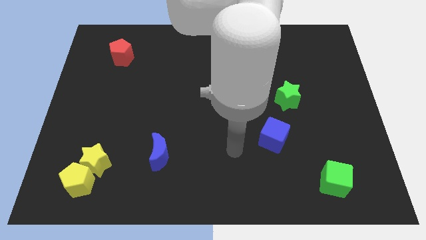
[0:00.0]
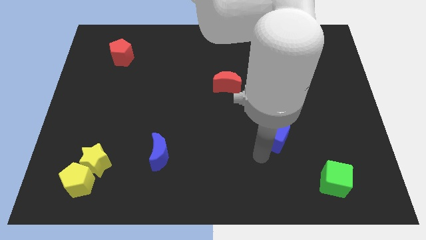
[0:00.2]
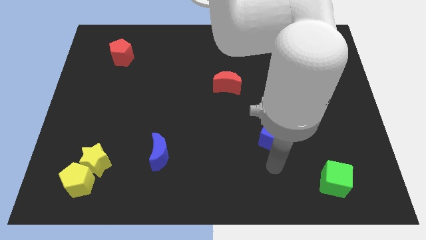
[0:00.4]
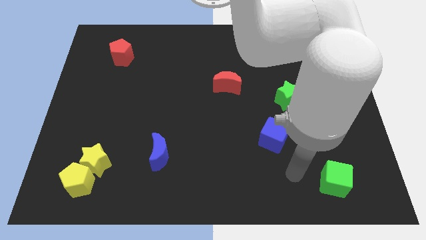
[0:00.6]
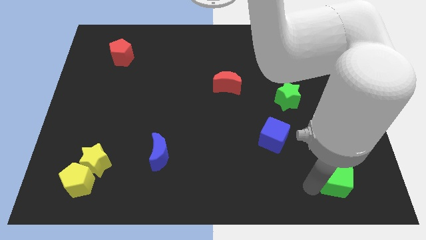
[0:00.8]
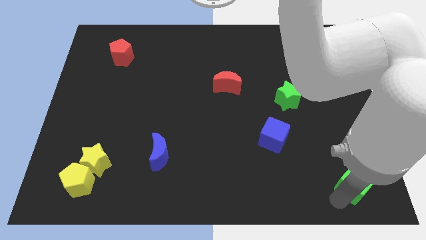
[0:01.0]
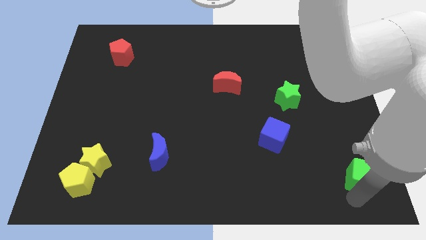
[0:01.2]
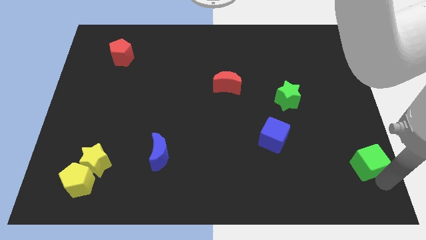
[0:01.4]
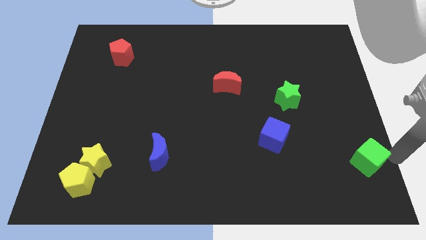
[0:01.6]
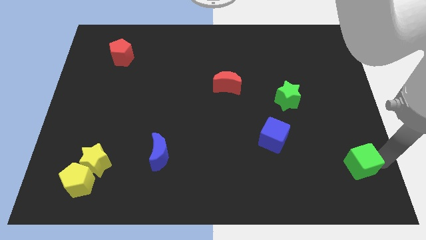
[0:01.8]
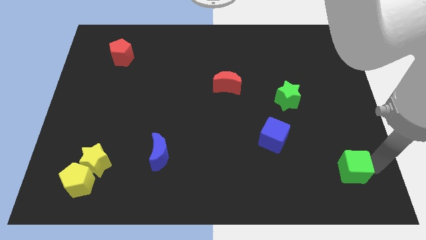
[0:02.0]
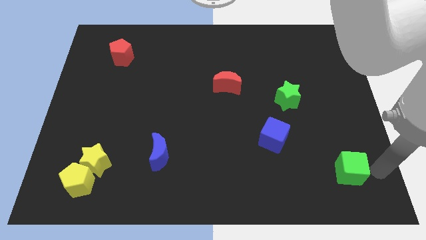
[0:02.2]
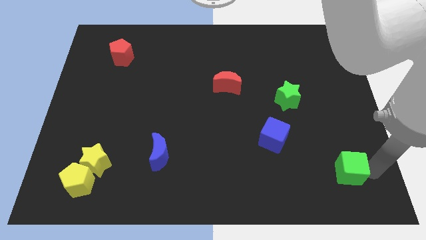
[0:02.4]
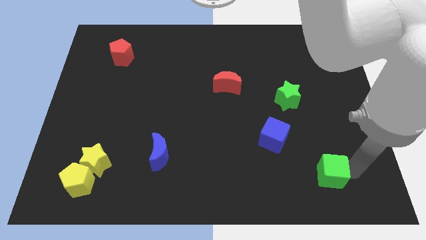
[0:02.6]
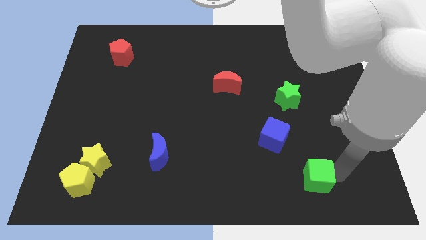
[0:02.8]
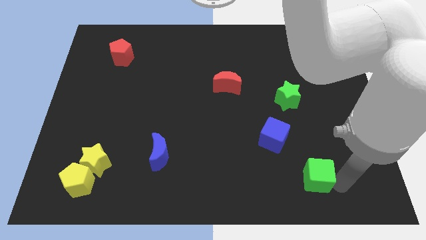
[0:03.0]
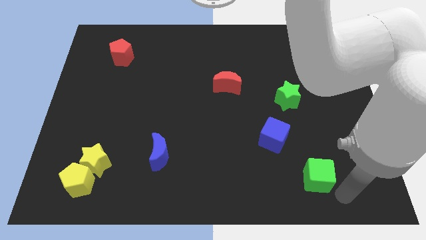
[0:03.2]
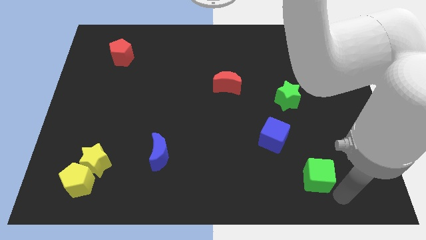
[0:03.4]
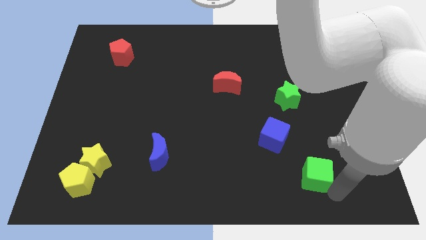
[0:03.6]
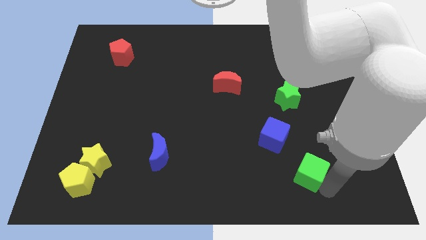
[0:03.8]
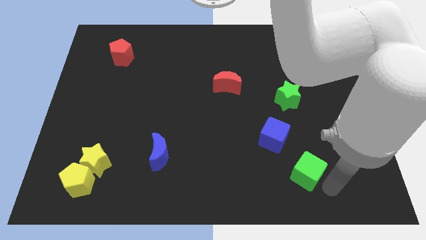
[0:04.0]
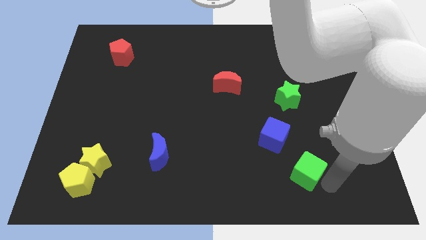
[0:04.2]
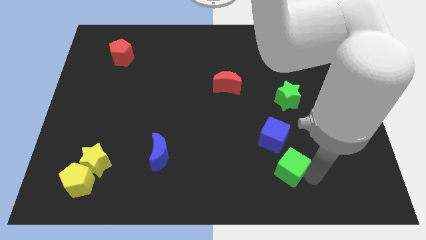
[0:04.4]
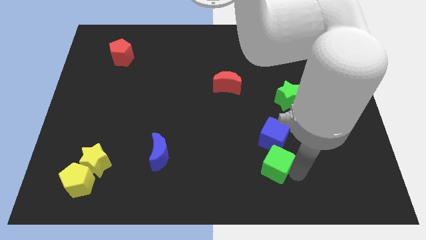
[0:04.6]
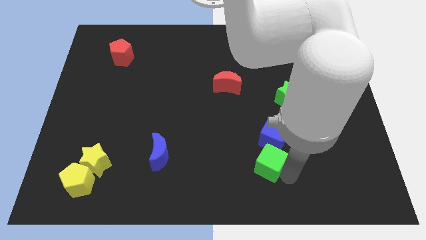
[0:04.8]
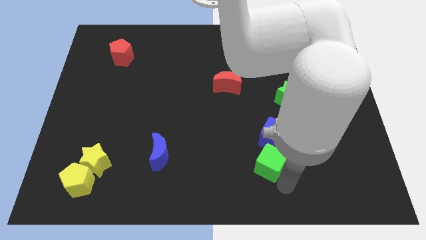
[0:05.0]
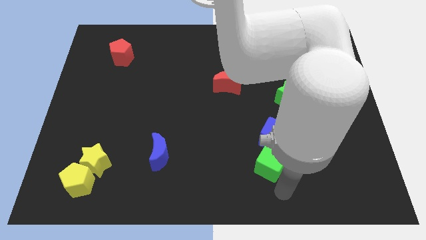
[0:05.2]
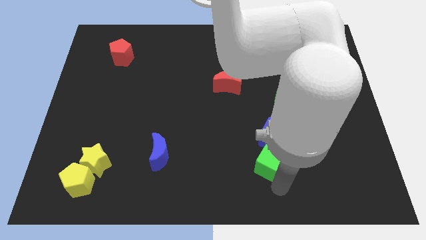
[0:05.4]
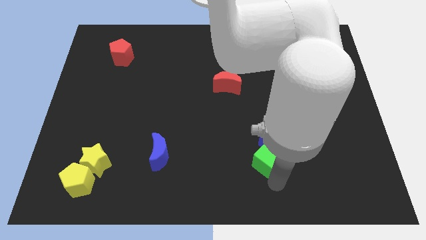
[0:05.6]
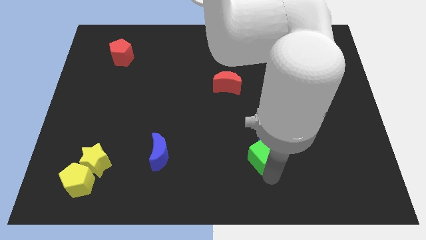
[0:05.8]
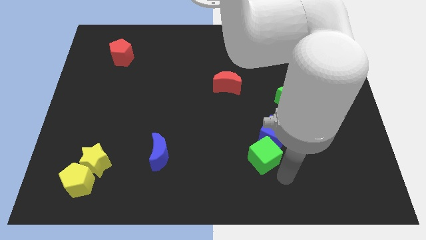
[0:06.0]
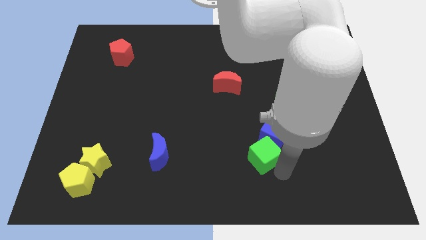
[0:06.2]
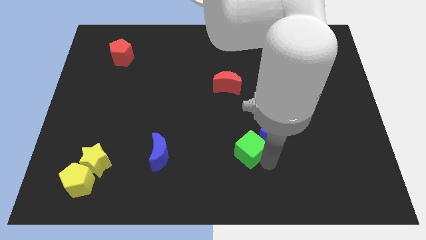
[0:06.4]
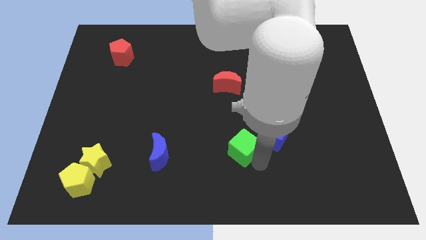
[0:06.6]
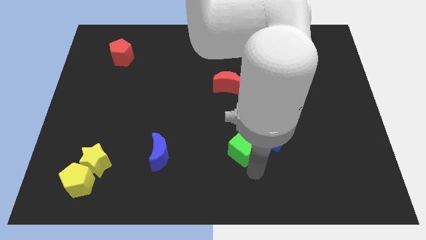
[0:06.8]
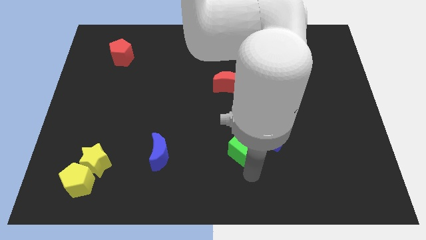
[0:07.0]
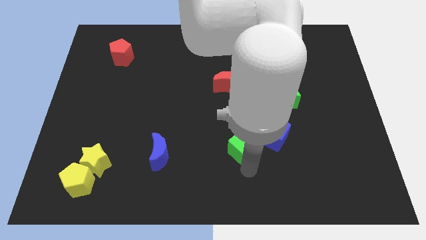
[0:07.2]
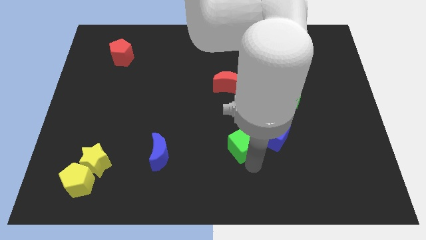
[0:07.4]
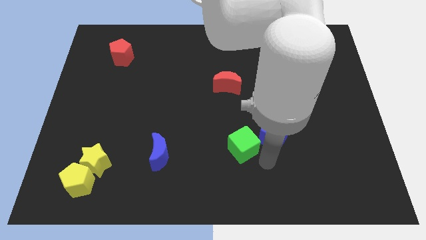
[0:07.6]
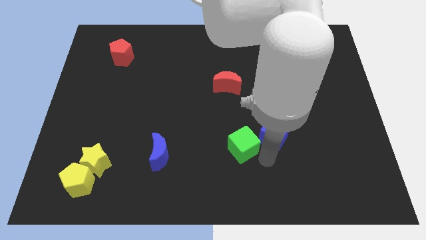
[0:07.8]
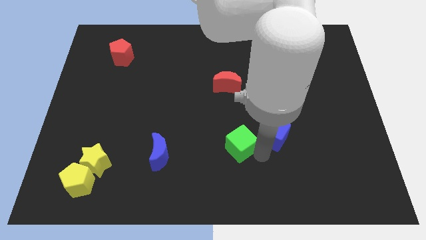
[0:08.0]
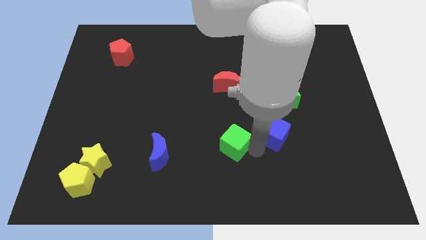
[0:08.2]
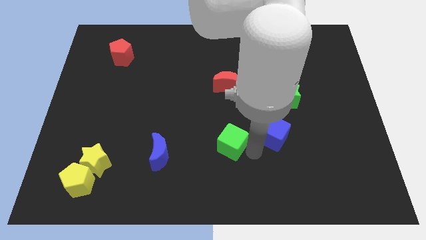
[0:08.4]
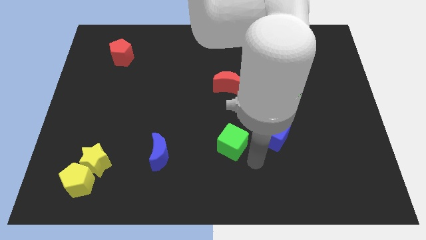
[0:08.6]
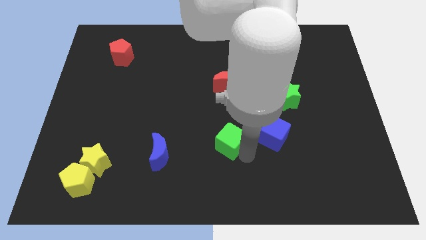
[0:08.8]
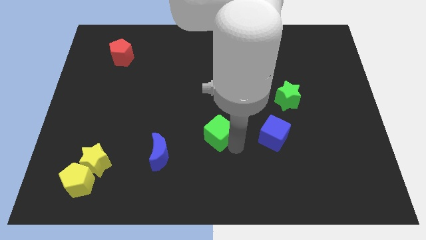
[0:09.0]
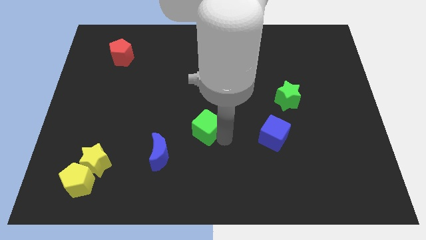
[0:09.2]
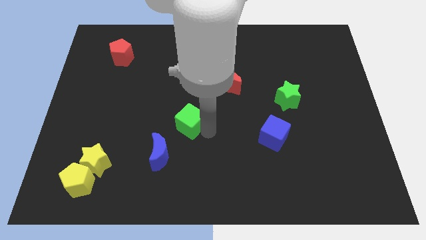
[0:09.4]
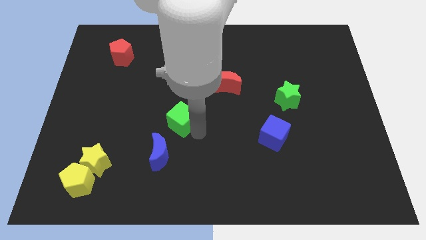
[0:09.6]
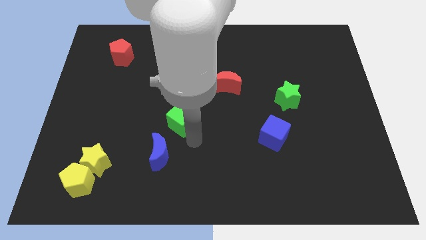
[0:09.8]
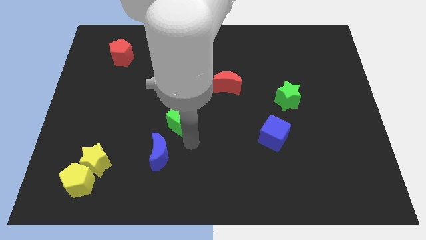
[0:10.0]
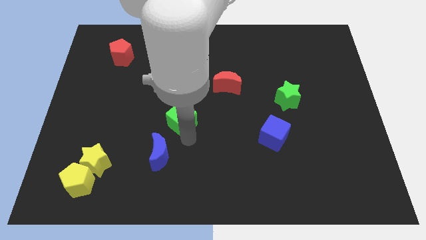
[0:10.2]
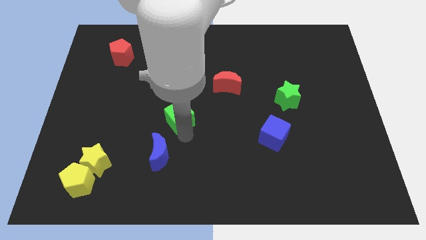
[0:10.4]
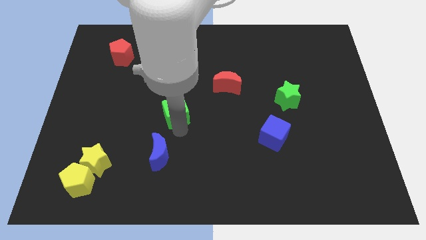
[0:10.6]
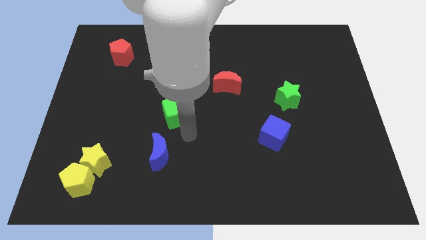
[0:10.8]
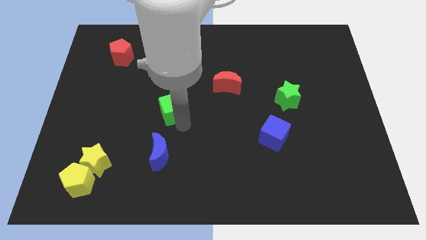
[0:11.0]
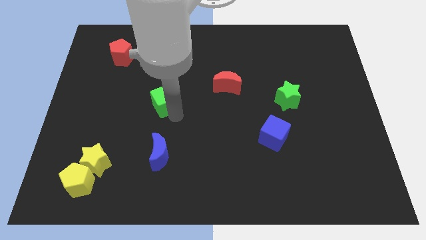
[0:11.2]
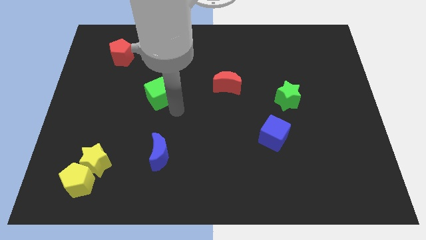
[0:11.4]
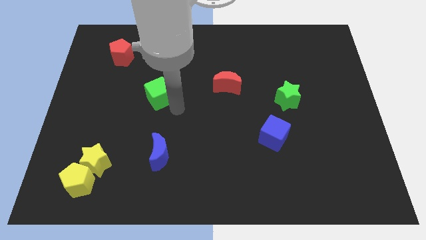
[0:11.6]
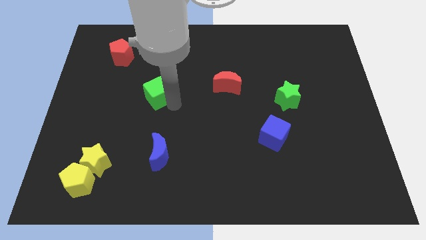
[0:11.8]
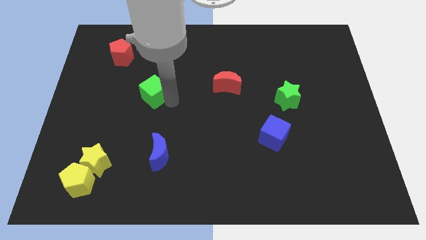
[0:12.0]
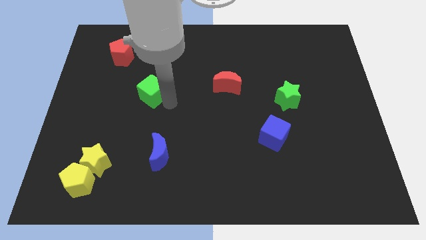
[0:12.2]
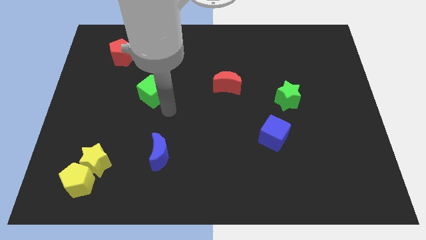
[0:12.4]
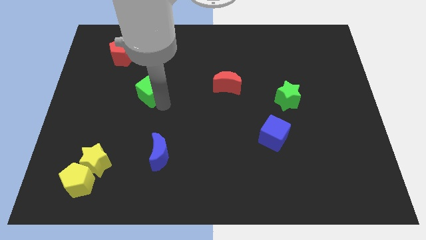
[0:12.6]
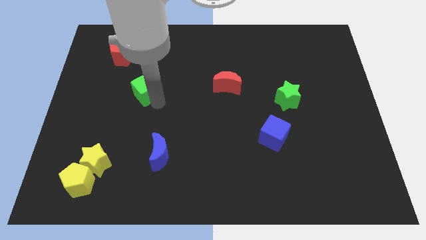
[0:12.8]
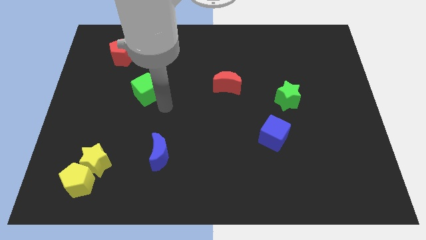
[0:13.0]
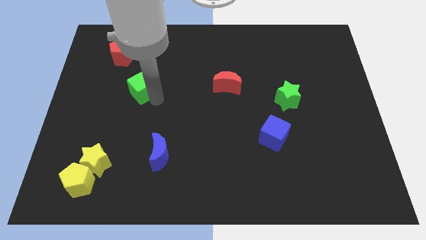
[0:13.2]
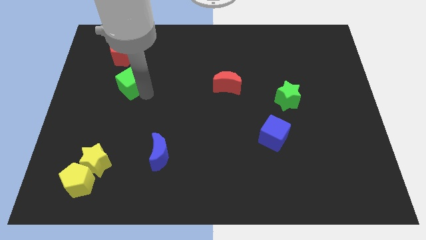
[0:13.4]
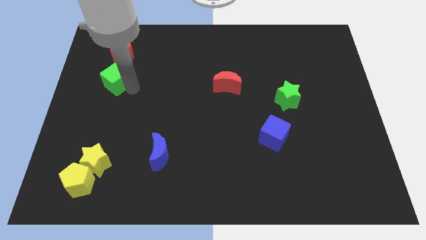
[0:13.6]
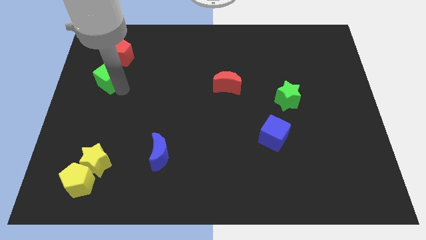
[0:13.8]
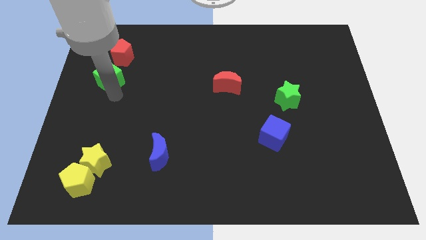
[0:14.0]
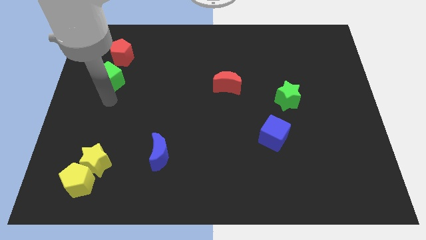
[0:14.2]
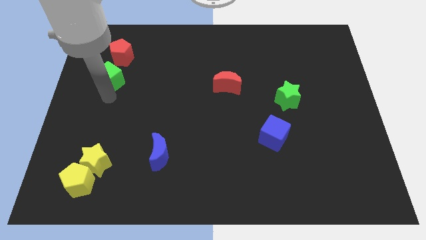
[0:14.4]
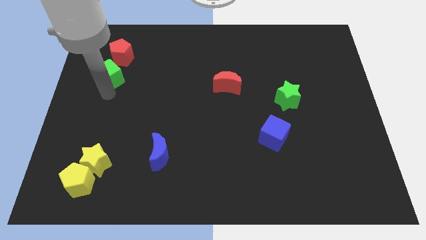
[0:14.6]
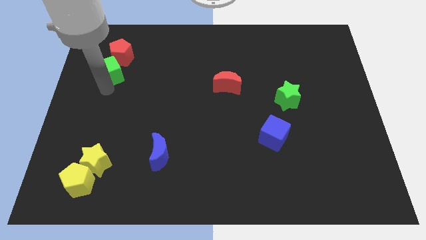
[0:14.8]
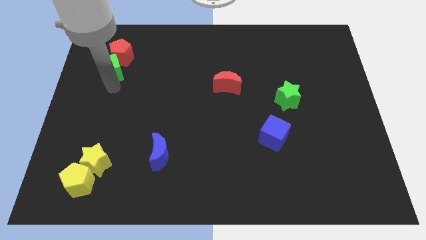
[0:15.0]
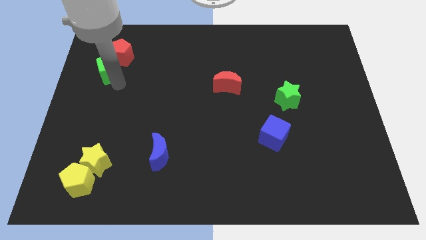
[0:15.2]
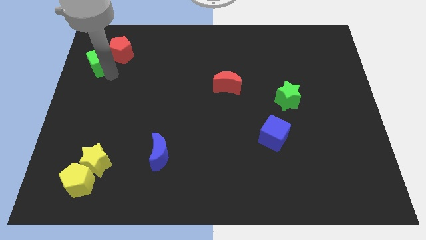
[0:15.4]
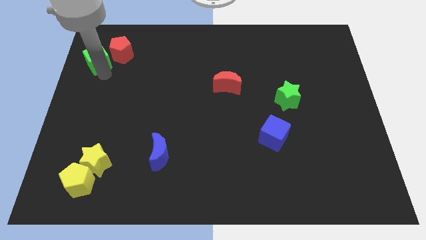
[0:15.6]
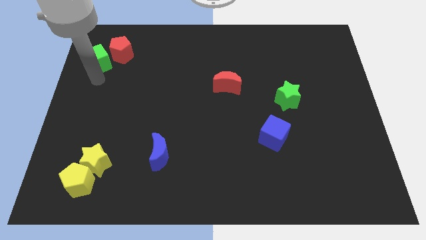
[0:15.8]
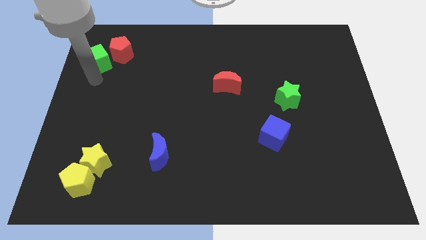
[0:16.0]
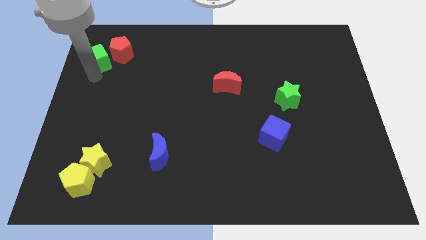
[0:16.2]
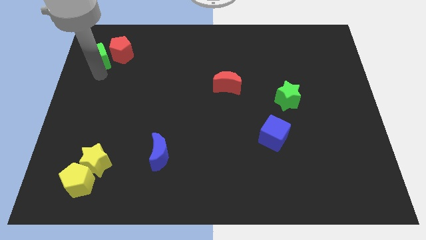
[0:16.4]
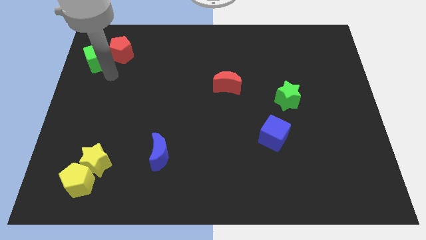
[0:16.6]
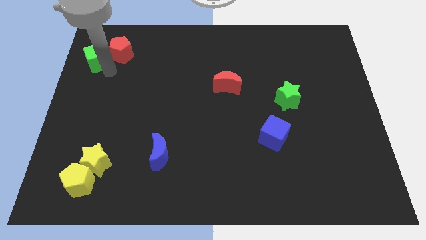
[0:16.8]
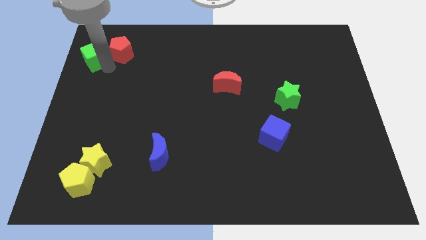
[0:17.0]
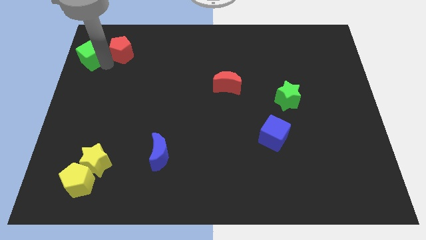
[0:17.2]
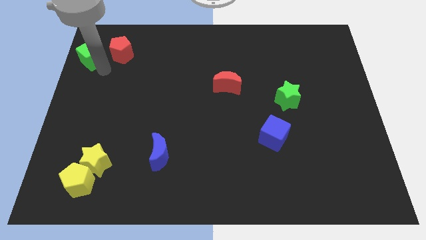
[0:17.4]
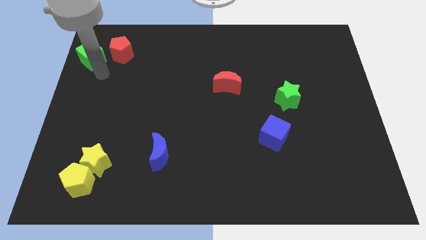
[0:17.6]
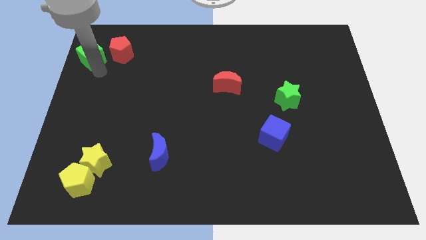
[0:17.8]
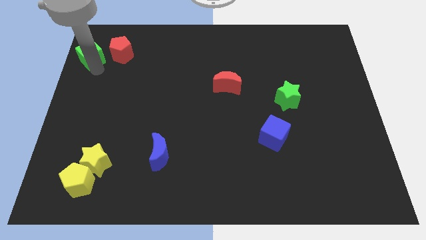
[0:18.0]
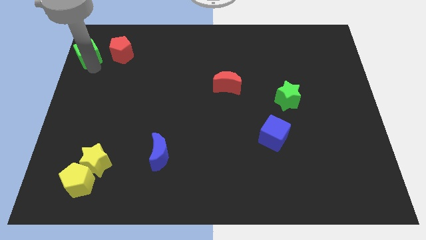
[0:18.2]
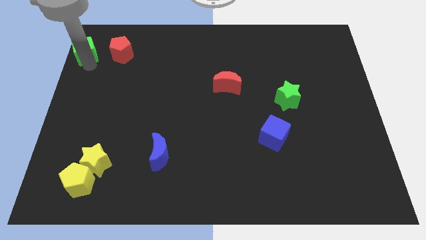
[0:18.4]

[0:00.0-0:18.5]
slide the green cube to the upper left corner
